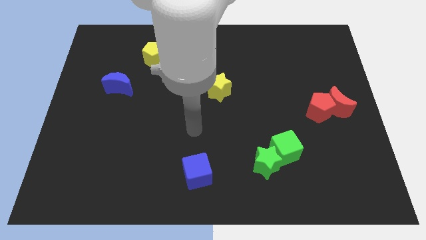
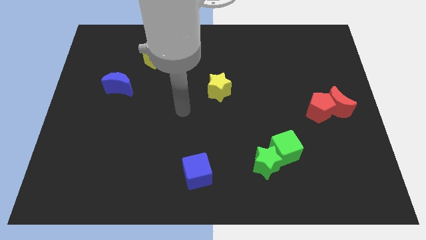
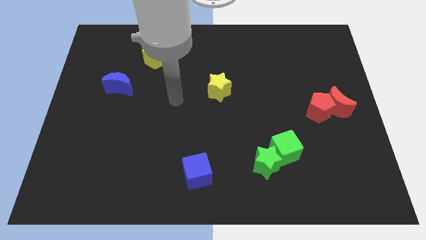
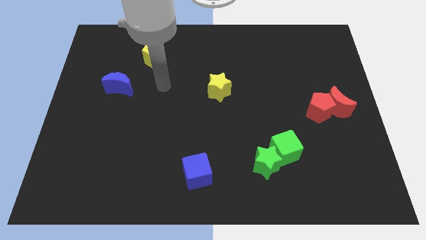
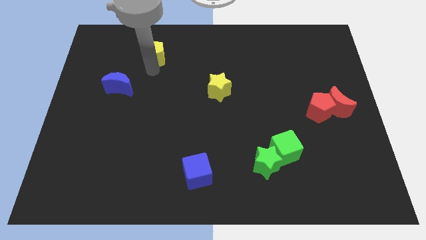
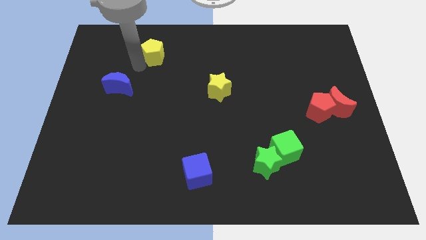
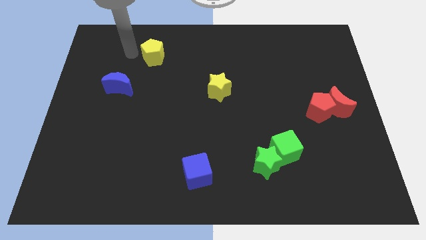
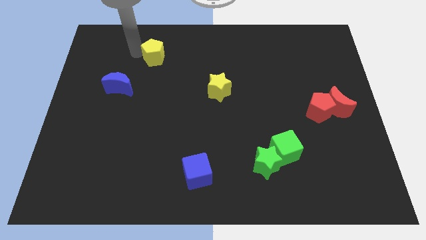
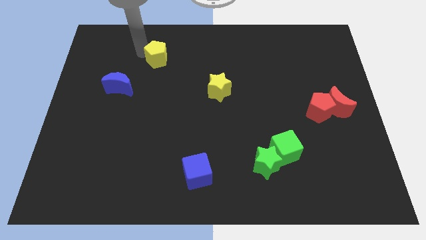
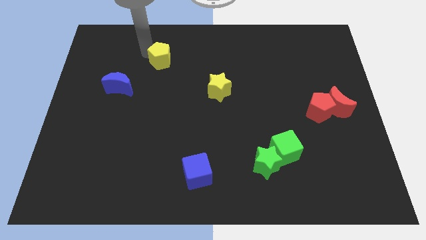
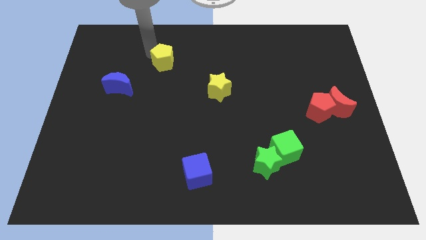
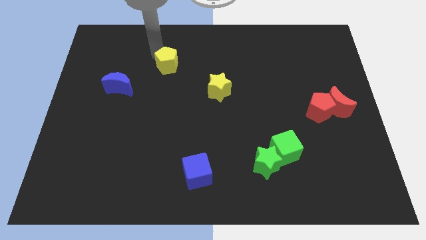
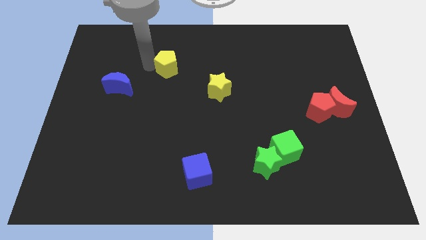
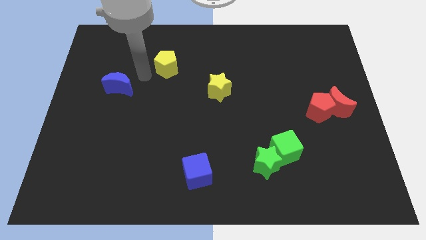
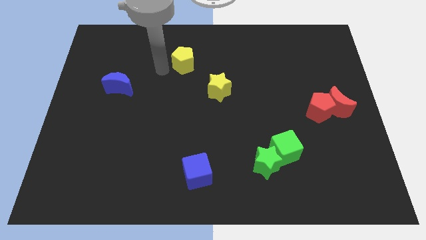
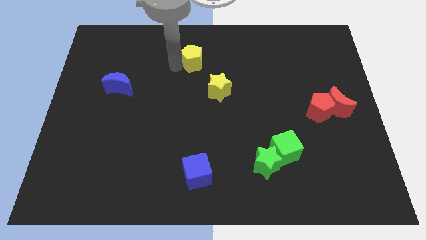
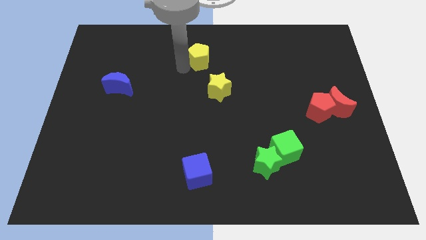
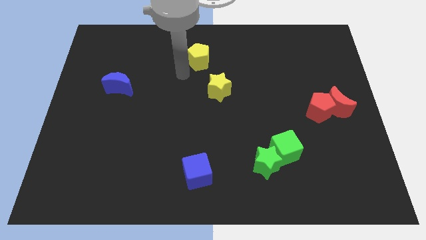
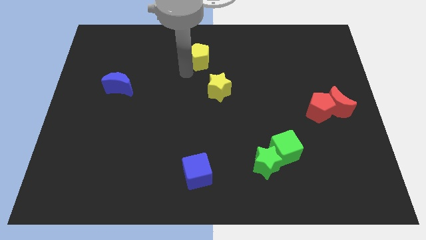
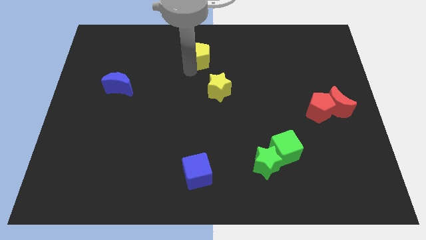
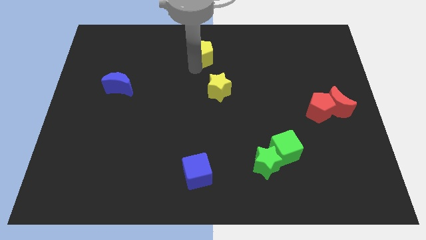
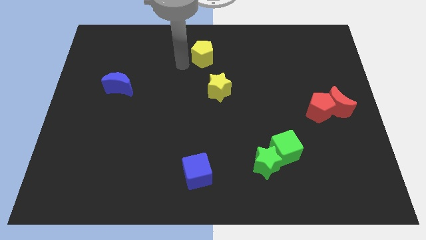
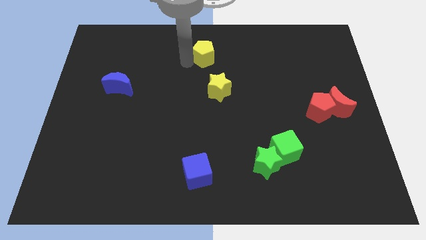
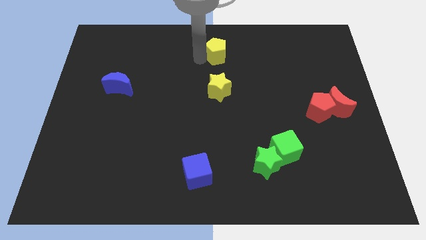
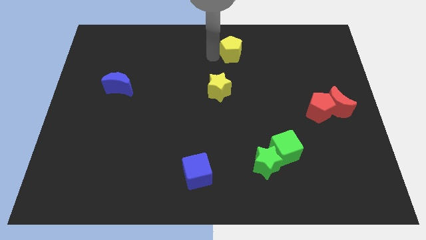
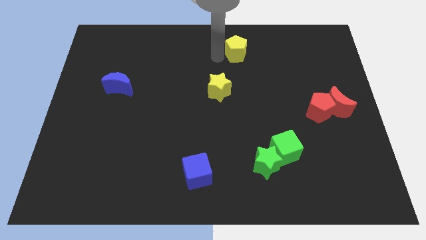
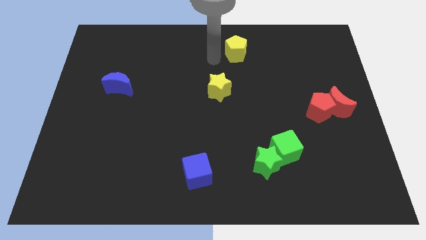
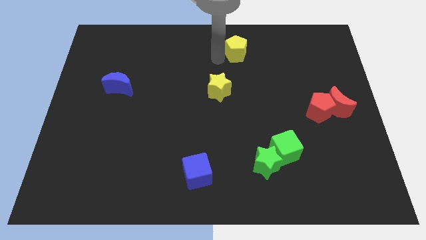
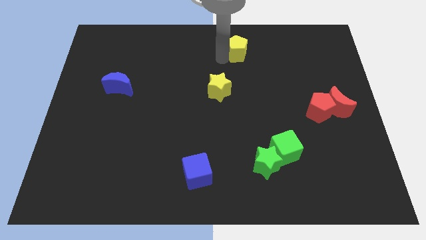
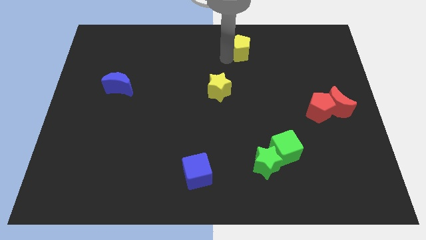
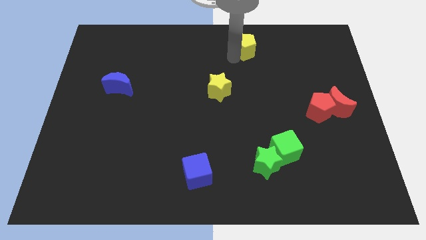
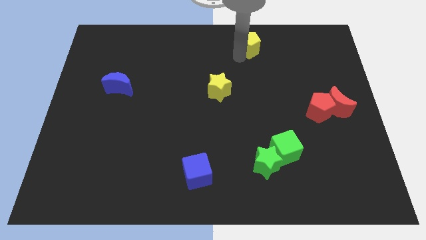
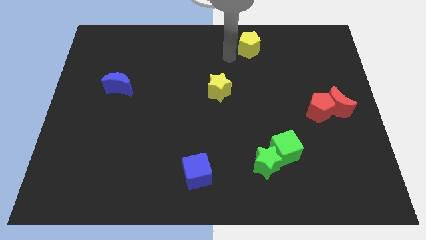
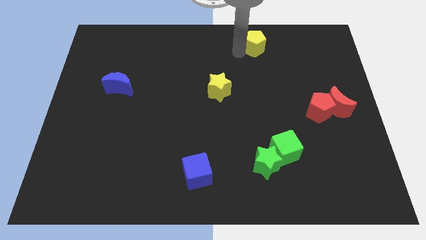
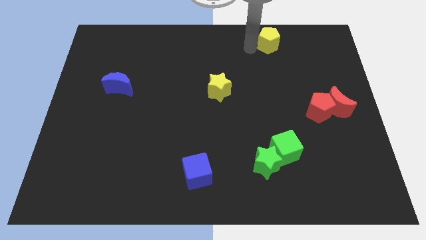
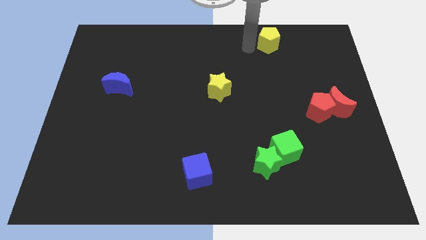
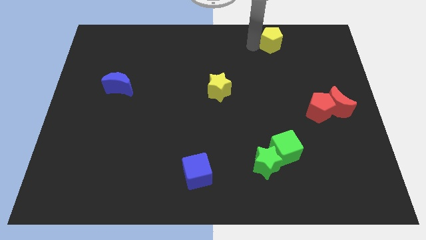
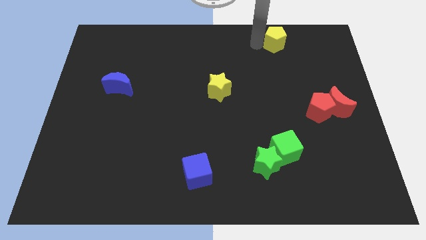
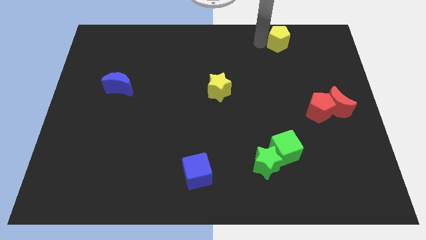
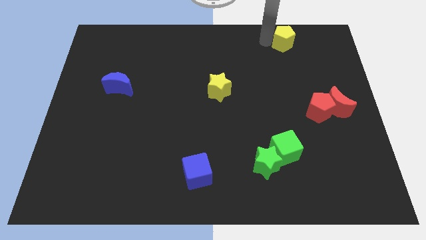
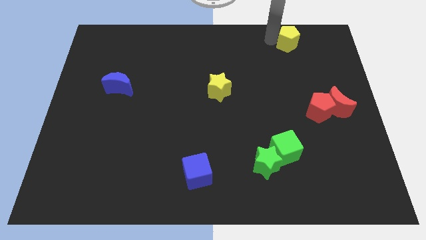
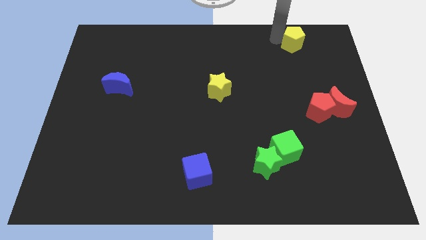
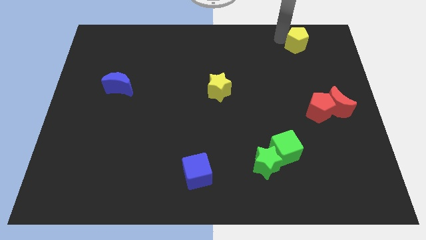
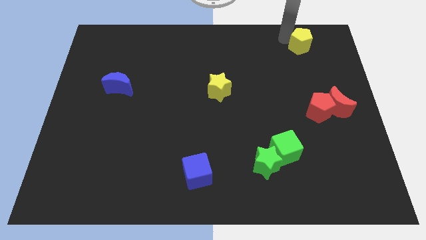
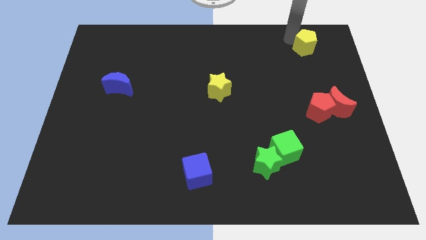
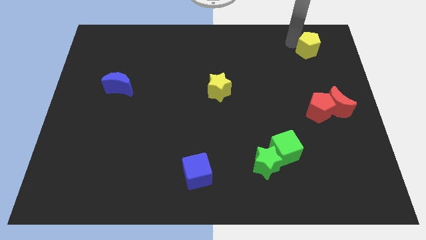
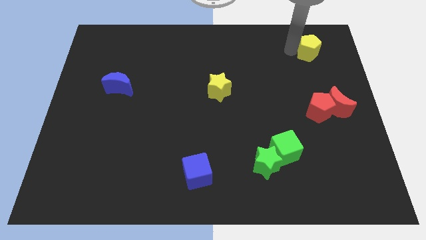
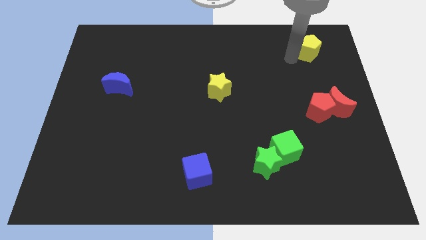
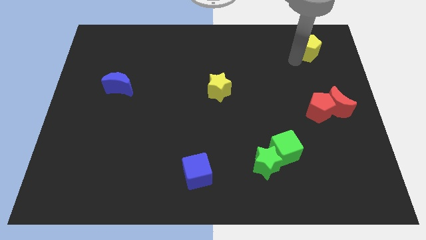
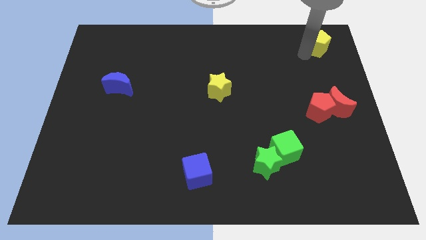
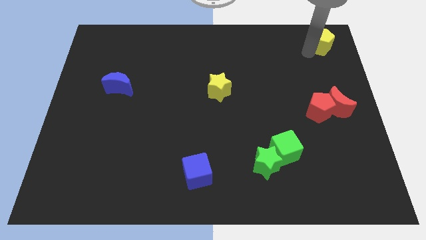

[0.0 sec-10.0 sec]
slide the yellow pentagon to the top right
